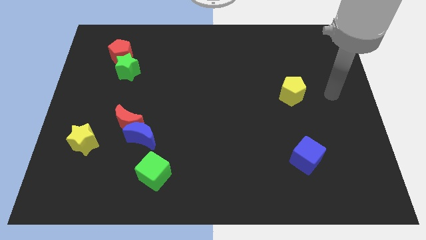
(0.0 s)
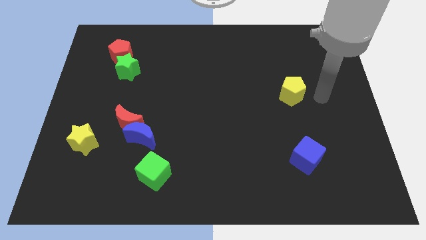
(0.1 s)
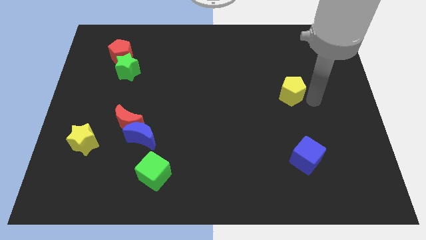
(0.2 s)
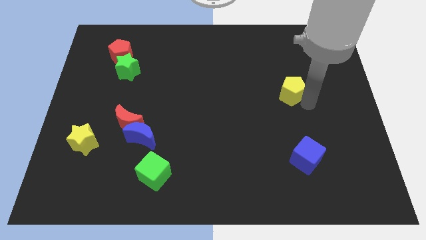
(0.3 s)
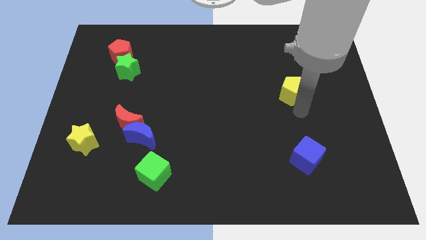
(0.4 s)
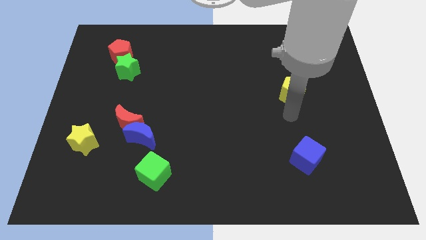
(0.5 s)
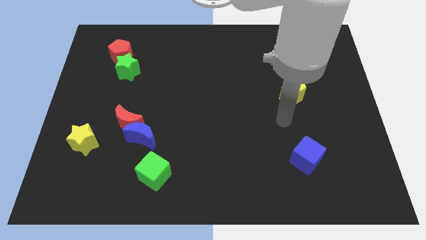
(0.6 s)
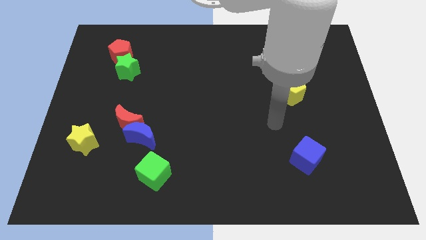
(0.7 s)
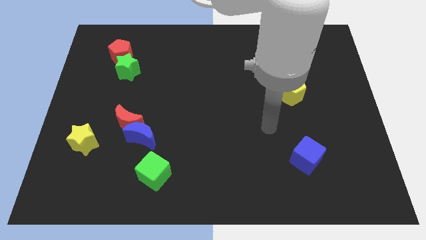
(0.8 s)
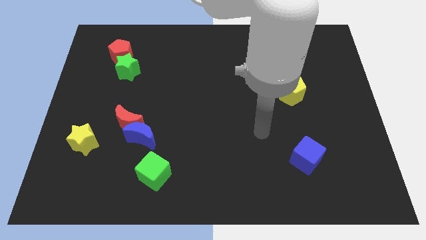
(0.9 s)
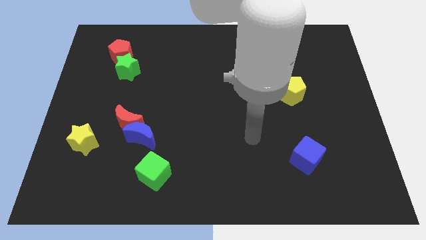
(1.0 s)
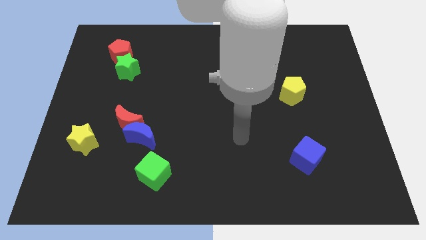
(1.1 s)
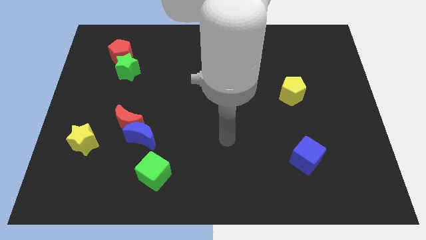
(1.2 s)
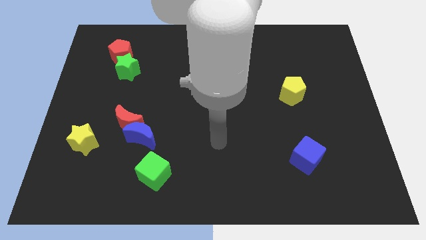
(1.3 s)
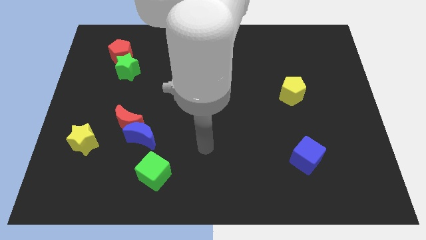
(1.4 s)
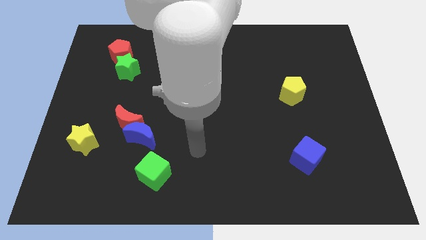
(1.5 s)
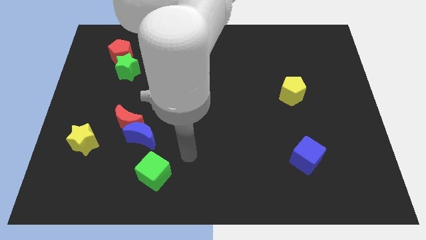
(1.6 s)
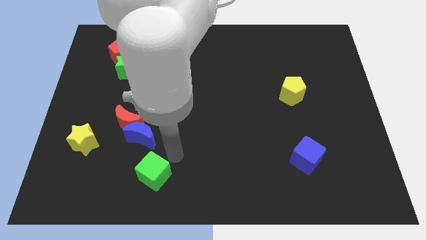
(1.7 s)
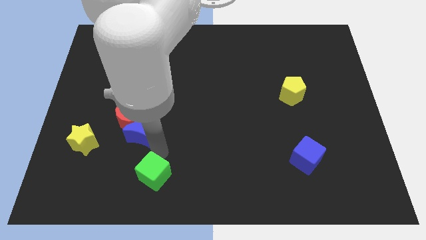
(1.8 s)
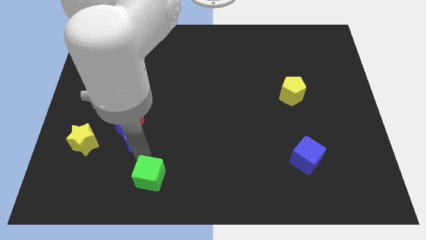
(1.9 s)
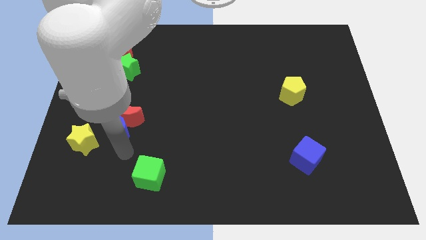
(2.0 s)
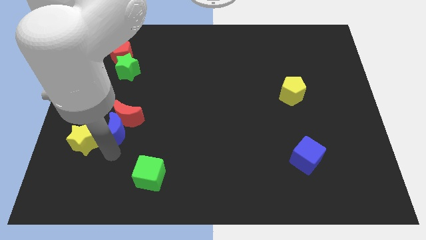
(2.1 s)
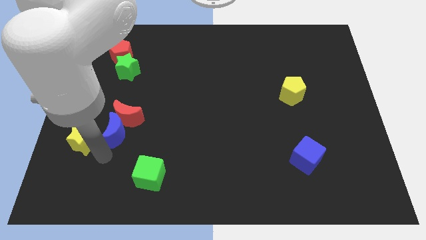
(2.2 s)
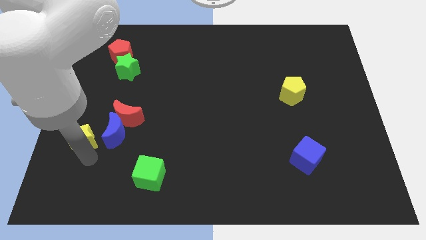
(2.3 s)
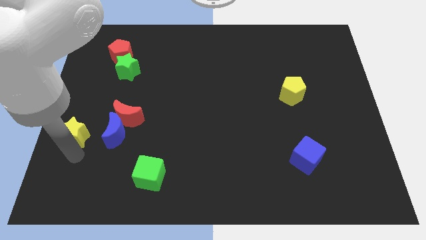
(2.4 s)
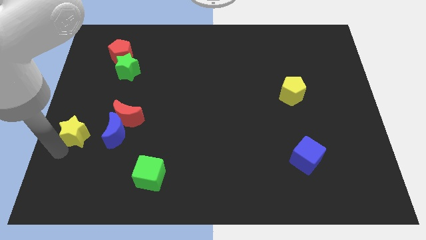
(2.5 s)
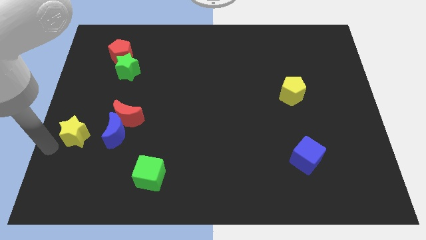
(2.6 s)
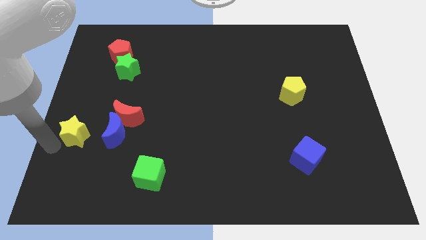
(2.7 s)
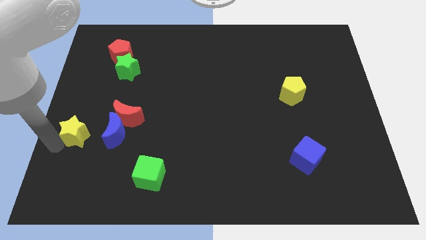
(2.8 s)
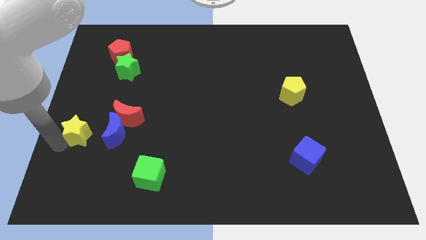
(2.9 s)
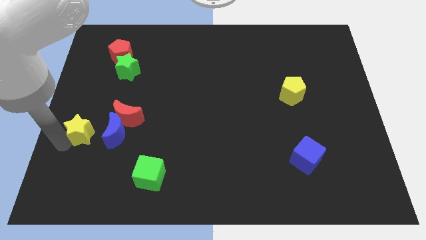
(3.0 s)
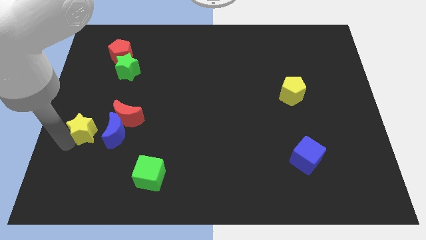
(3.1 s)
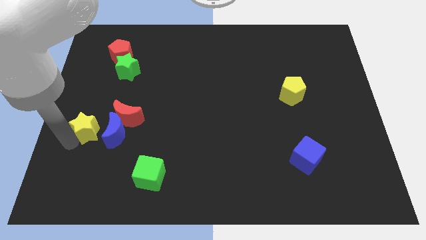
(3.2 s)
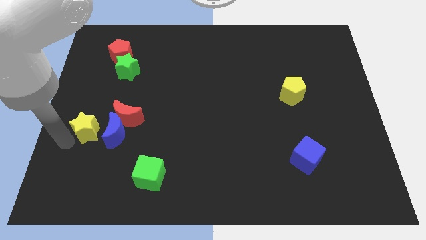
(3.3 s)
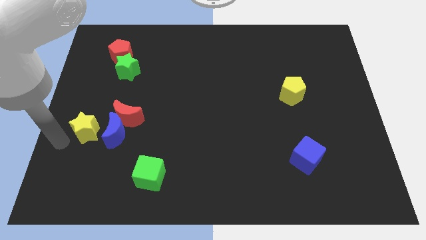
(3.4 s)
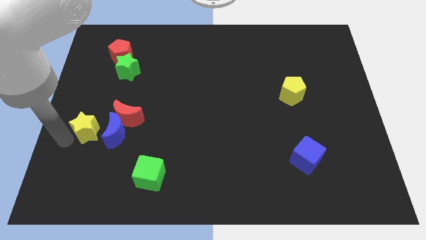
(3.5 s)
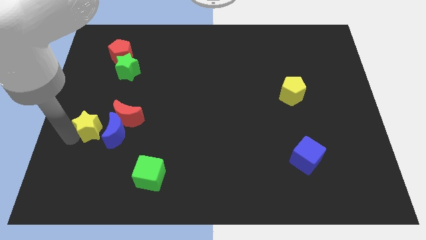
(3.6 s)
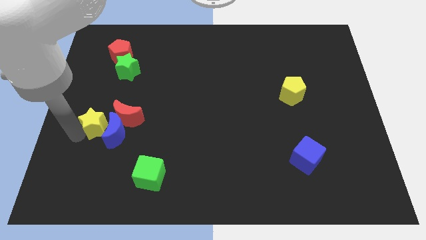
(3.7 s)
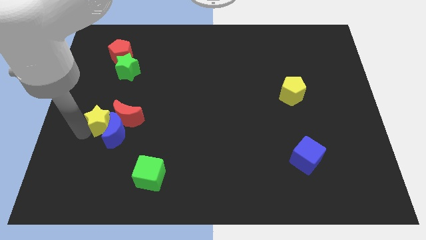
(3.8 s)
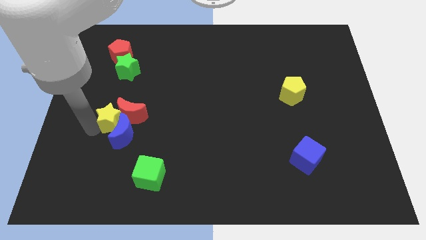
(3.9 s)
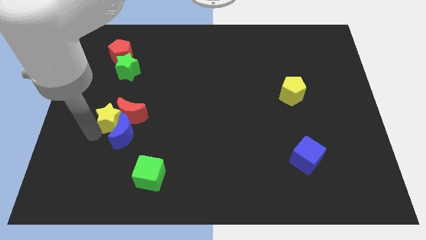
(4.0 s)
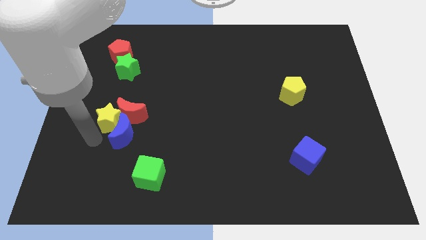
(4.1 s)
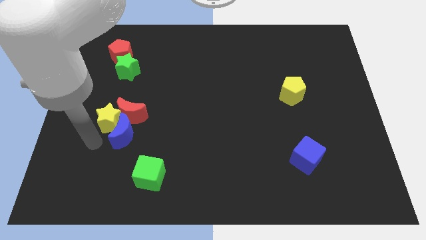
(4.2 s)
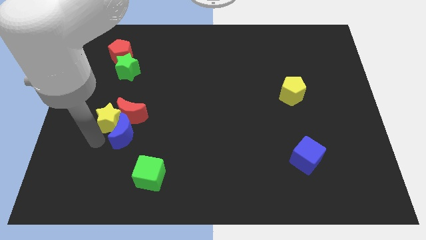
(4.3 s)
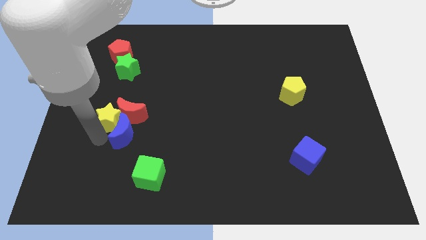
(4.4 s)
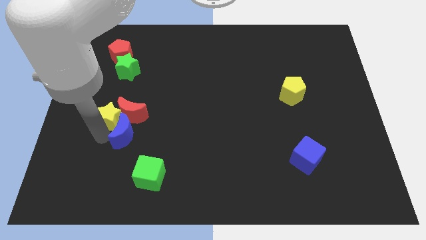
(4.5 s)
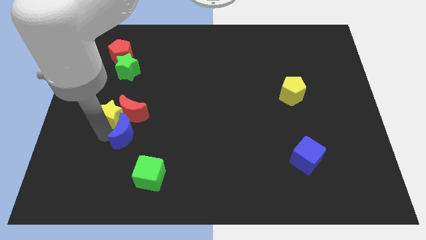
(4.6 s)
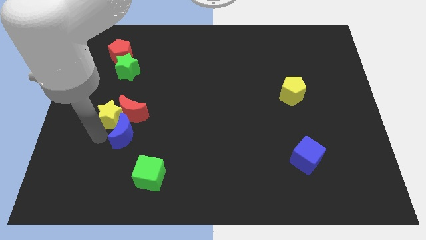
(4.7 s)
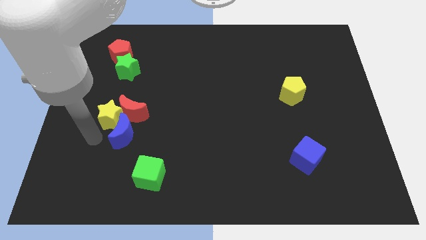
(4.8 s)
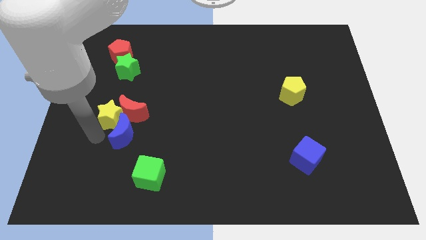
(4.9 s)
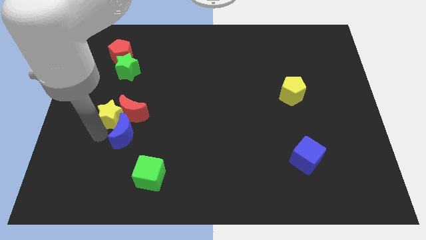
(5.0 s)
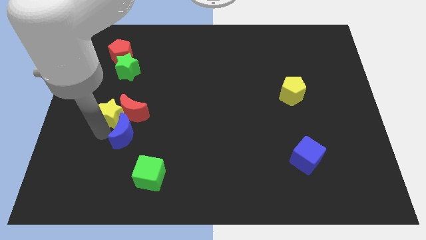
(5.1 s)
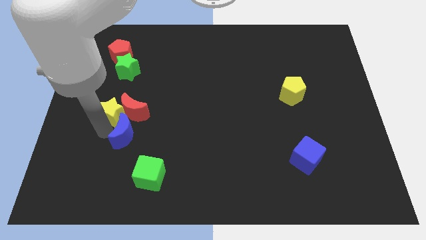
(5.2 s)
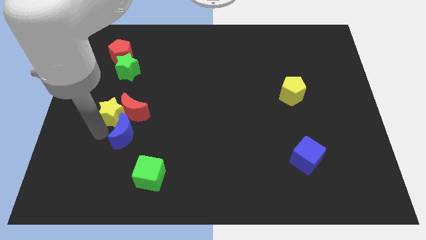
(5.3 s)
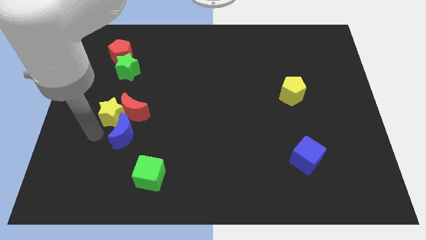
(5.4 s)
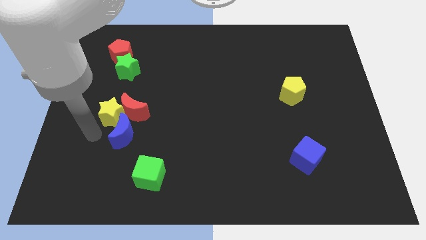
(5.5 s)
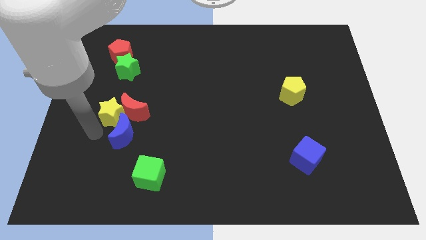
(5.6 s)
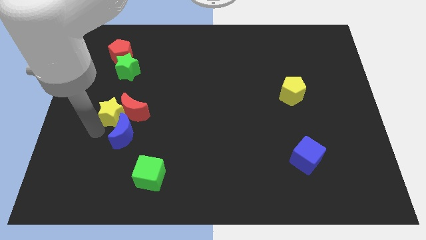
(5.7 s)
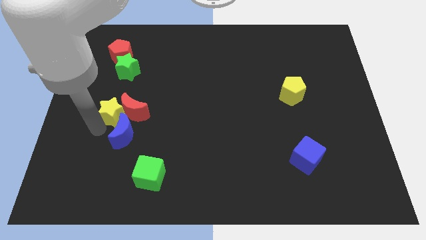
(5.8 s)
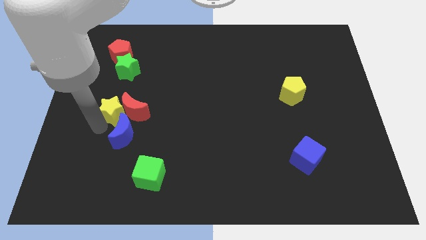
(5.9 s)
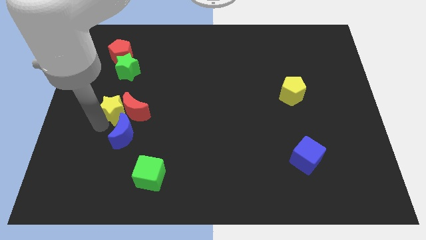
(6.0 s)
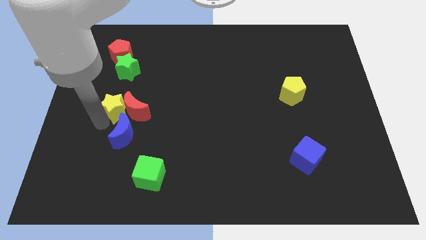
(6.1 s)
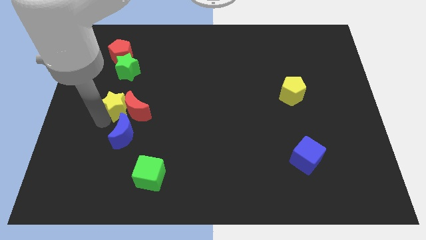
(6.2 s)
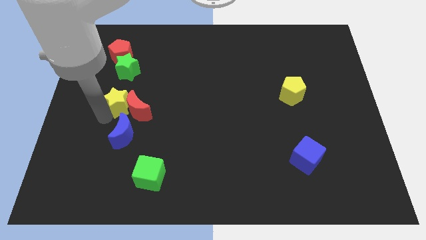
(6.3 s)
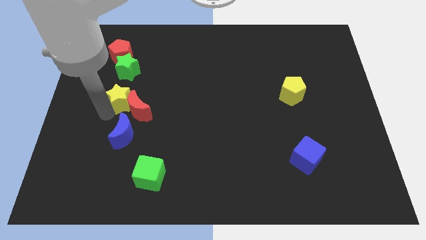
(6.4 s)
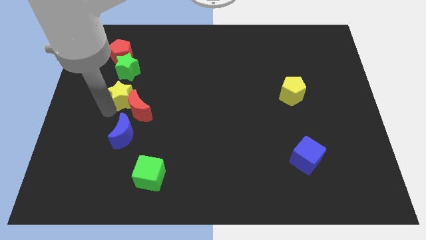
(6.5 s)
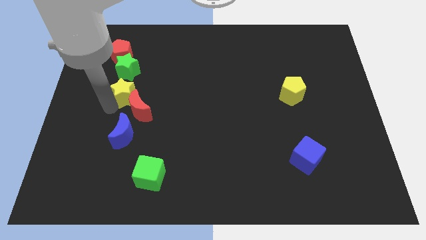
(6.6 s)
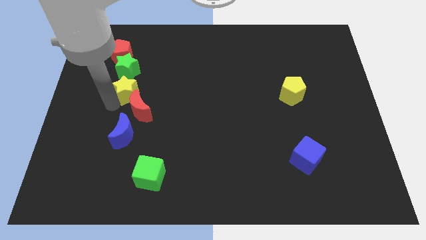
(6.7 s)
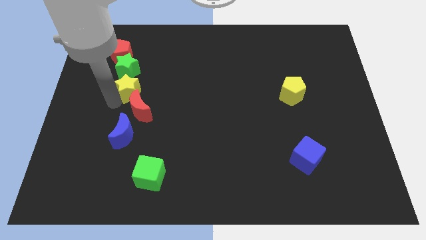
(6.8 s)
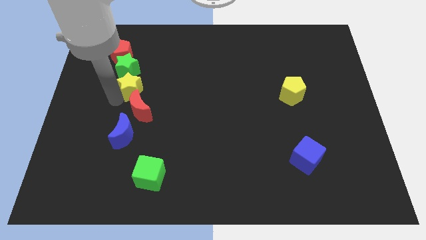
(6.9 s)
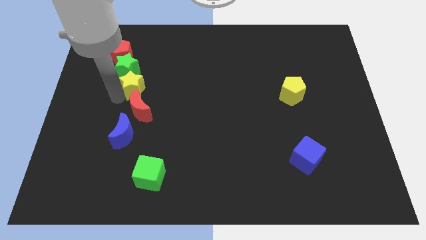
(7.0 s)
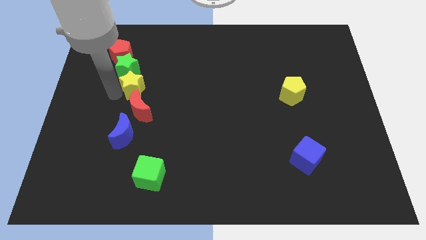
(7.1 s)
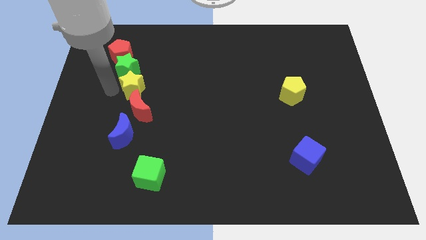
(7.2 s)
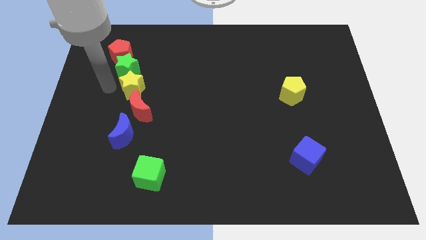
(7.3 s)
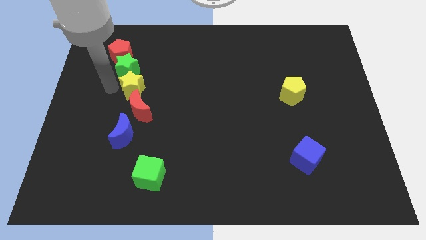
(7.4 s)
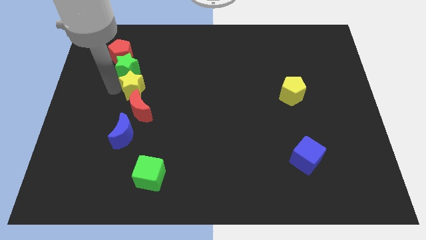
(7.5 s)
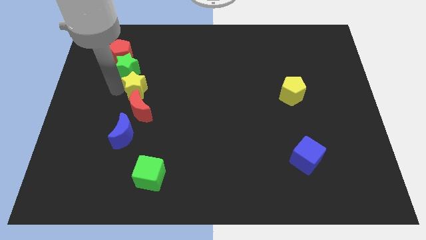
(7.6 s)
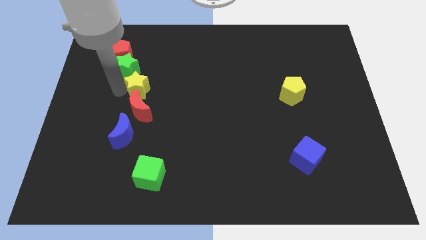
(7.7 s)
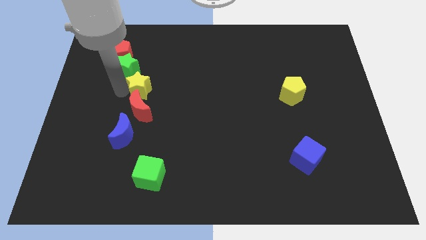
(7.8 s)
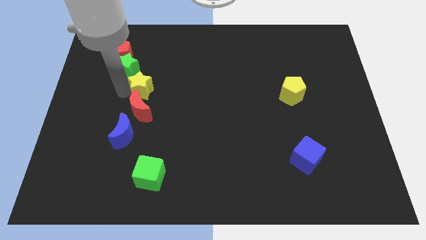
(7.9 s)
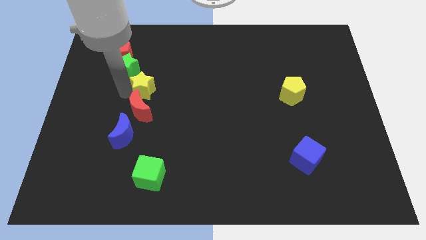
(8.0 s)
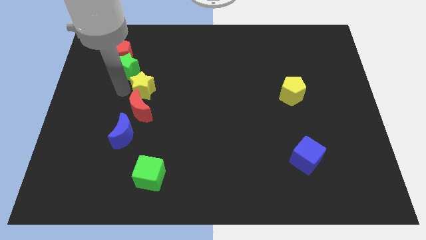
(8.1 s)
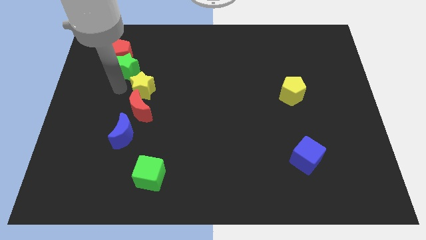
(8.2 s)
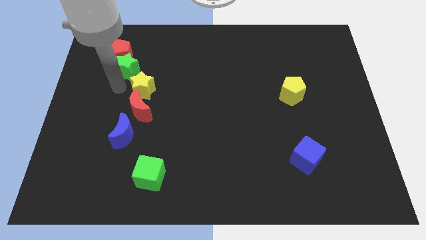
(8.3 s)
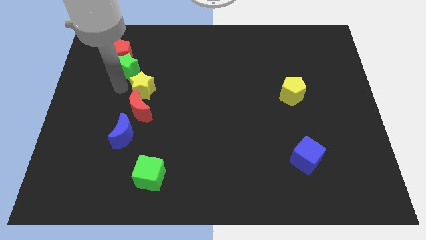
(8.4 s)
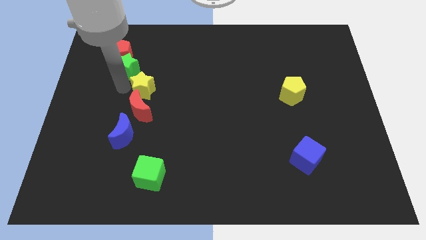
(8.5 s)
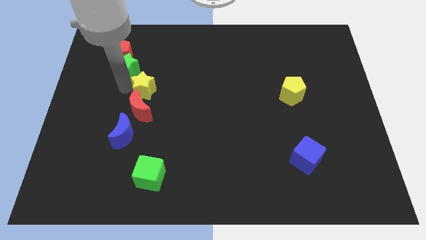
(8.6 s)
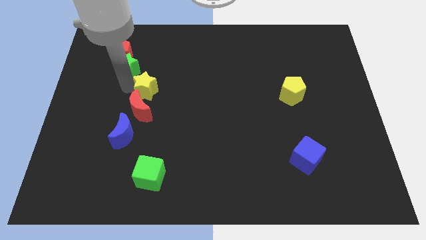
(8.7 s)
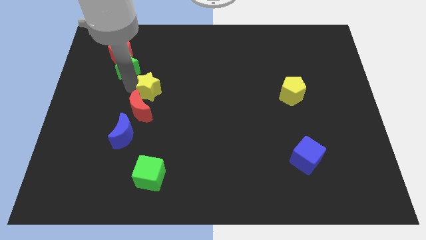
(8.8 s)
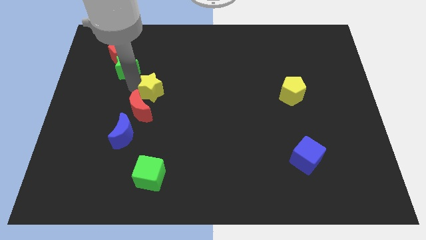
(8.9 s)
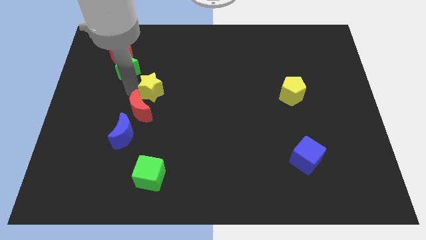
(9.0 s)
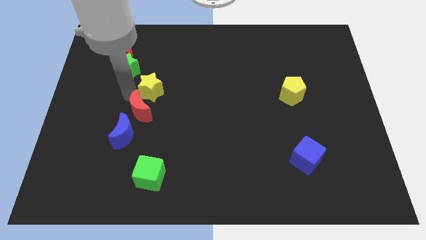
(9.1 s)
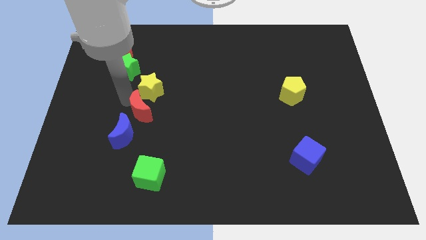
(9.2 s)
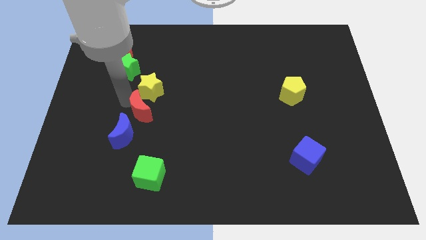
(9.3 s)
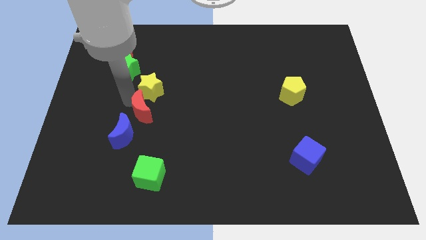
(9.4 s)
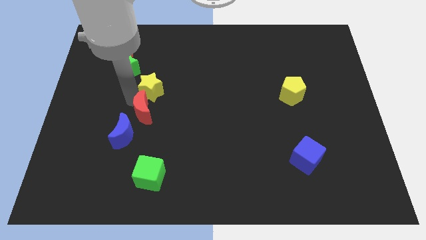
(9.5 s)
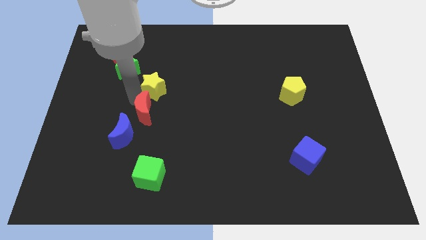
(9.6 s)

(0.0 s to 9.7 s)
slide the yellow star upwards and to the right
